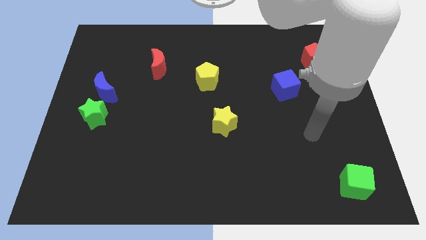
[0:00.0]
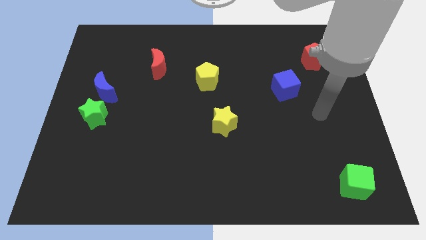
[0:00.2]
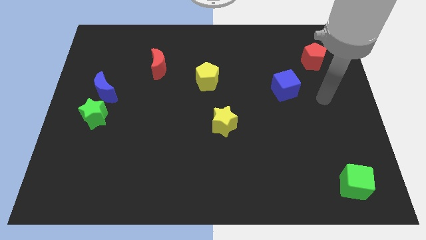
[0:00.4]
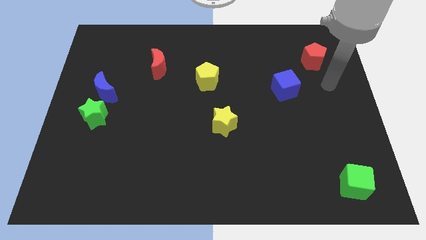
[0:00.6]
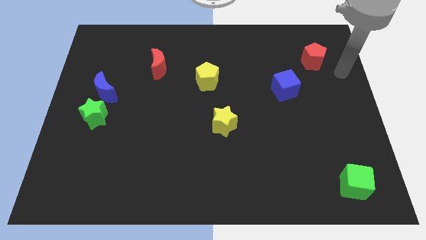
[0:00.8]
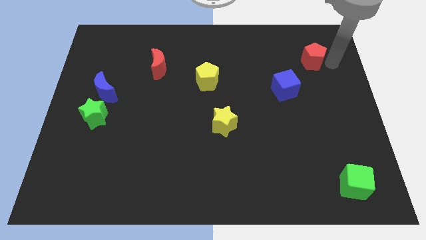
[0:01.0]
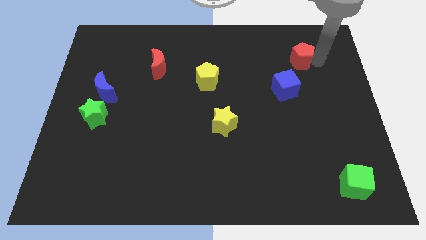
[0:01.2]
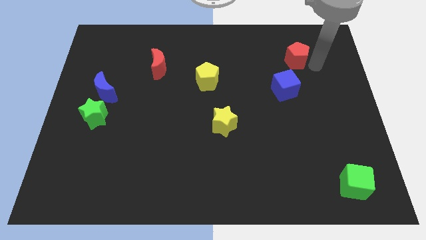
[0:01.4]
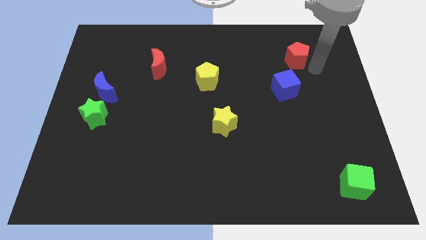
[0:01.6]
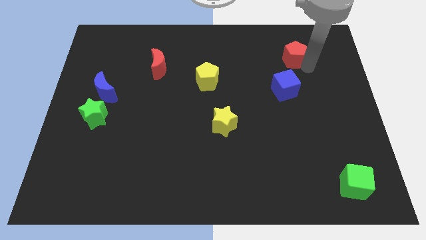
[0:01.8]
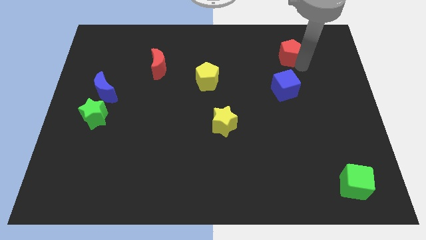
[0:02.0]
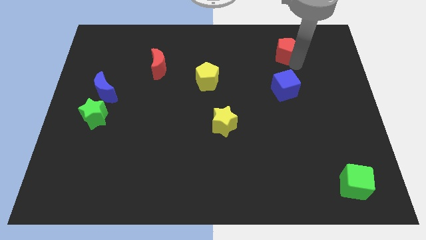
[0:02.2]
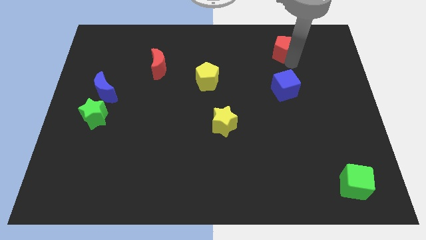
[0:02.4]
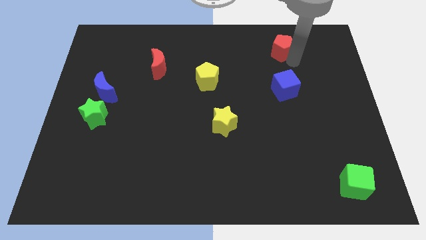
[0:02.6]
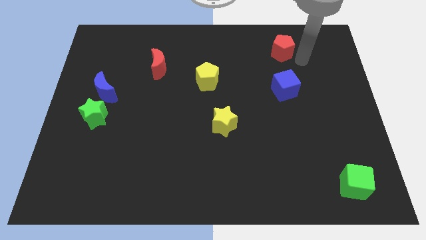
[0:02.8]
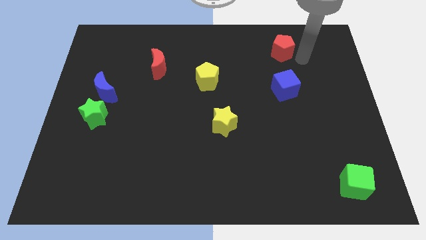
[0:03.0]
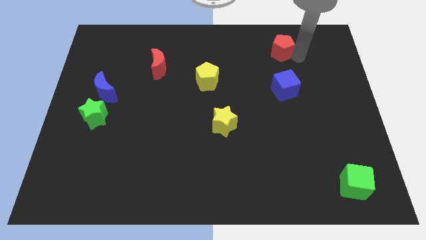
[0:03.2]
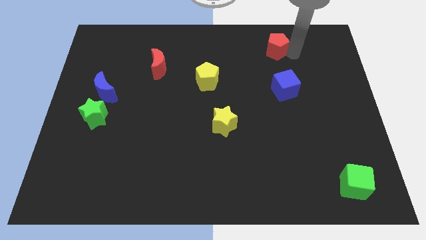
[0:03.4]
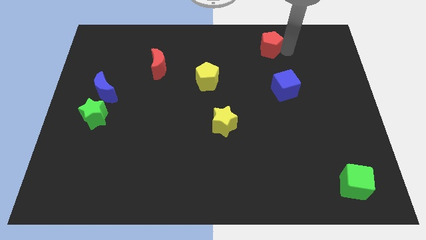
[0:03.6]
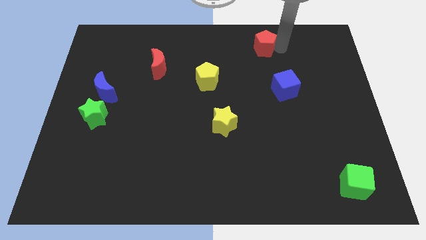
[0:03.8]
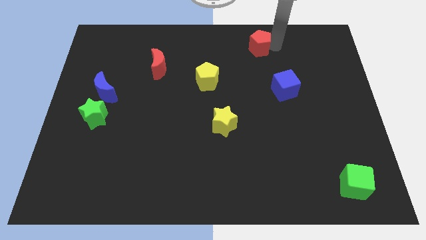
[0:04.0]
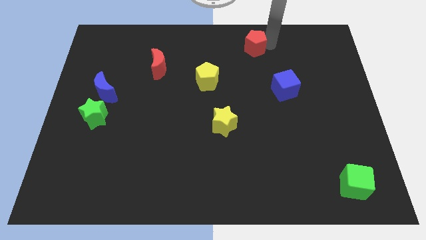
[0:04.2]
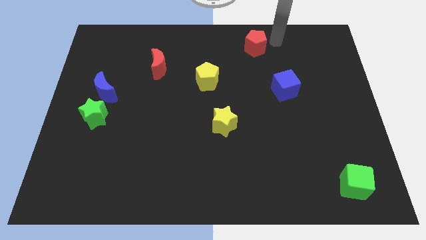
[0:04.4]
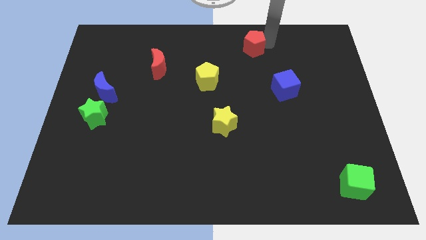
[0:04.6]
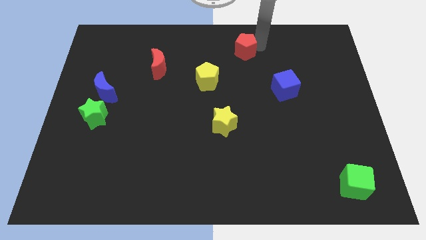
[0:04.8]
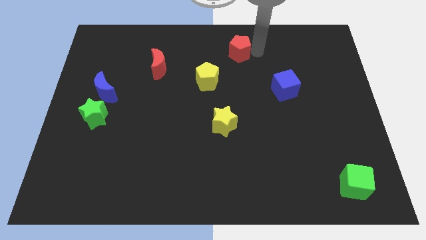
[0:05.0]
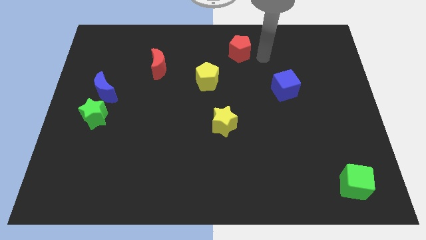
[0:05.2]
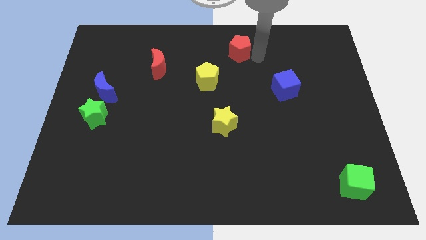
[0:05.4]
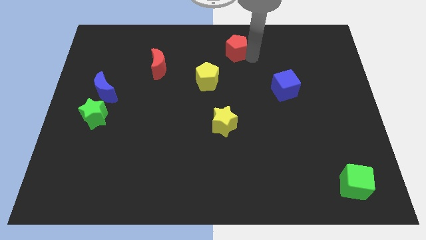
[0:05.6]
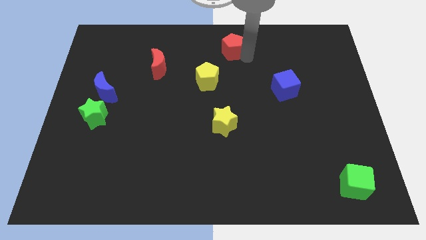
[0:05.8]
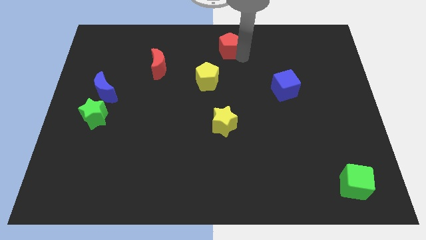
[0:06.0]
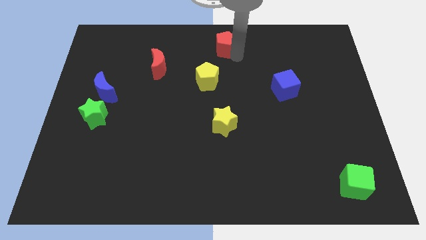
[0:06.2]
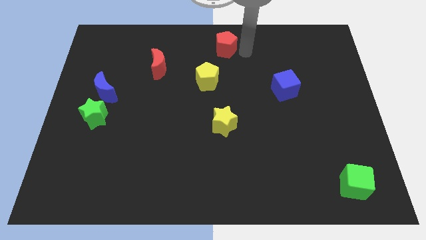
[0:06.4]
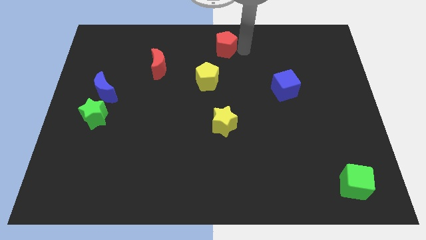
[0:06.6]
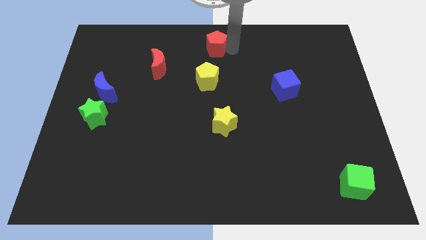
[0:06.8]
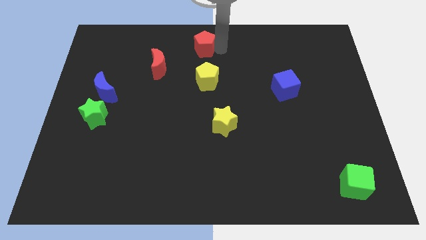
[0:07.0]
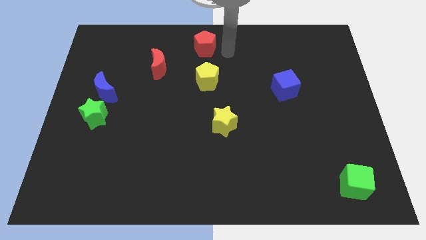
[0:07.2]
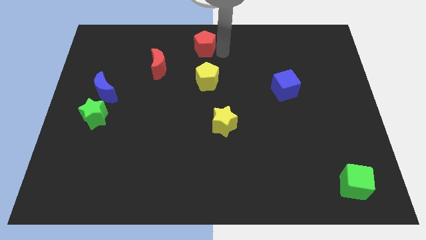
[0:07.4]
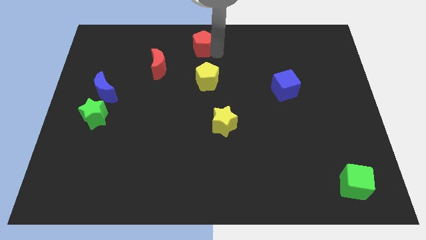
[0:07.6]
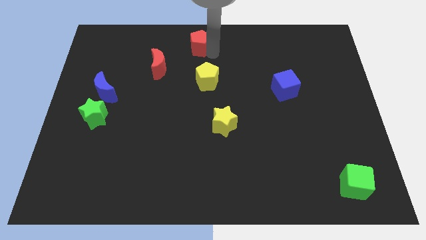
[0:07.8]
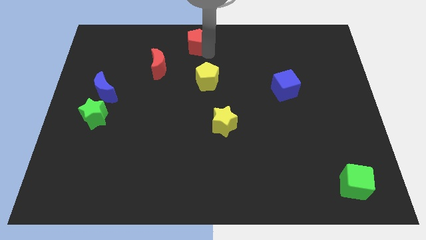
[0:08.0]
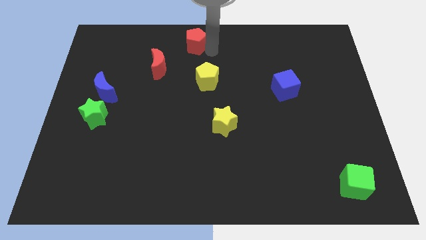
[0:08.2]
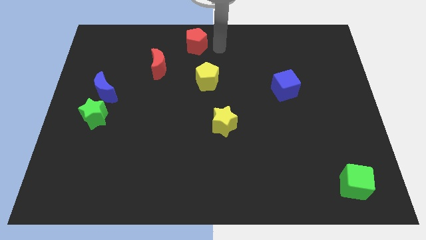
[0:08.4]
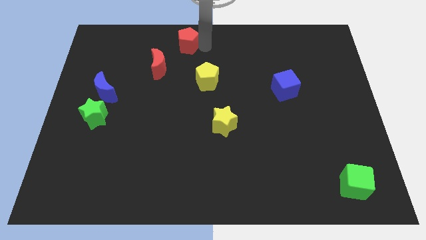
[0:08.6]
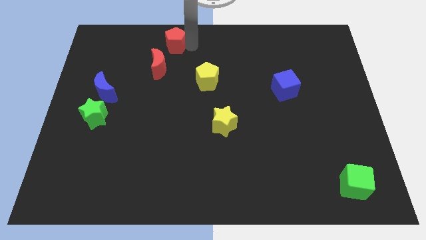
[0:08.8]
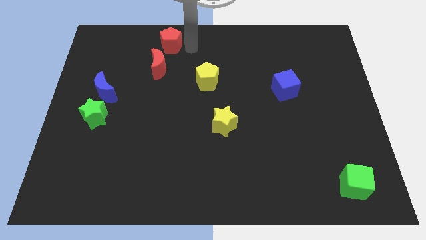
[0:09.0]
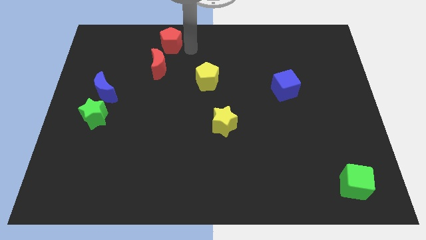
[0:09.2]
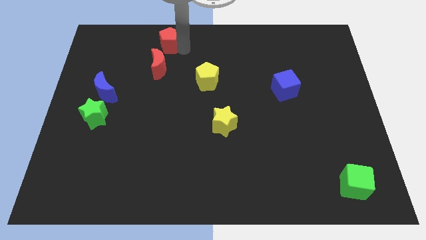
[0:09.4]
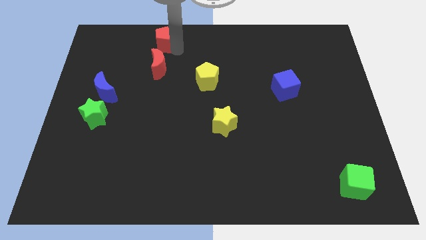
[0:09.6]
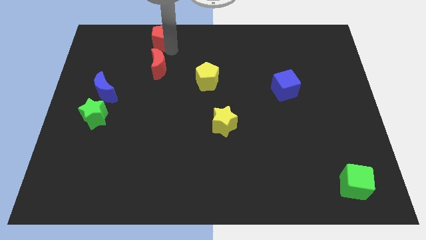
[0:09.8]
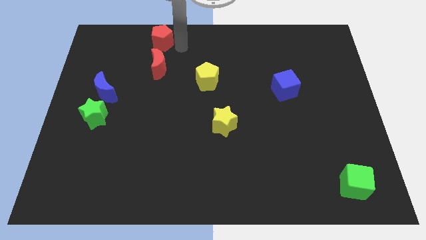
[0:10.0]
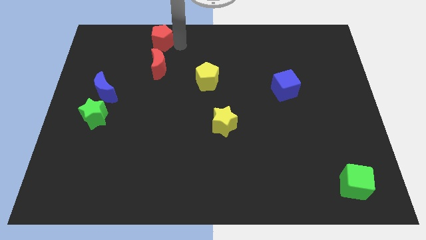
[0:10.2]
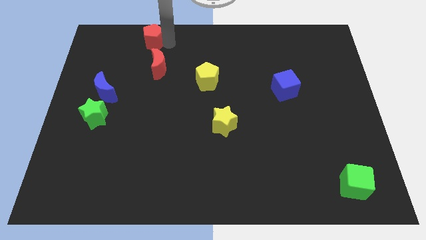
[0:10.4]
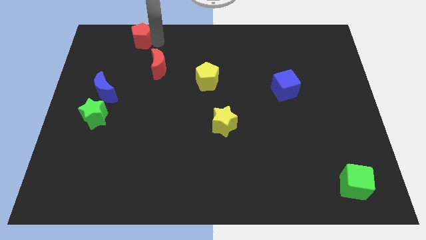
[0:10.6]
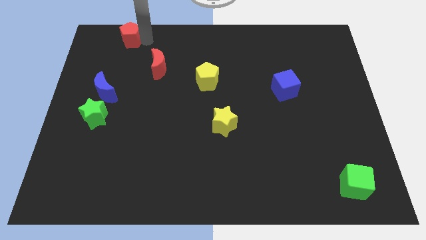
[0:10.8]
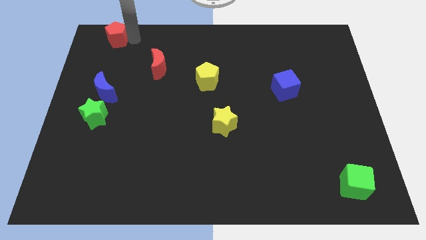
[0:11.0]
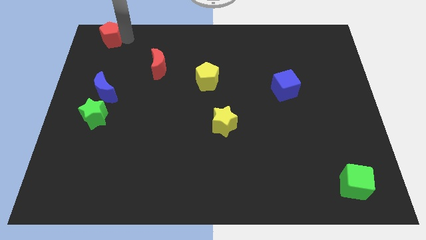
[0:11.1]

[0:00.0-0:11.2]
put the red pentagon to the top left corner
